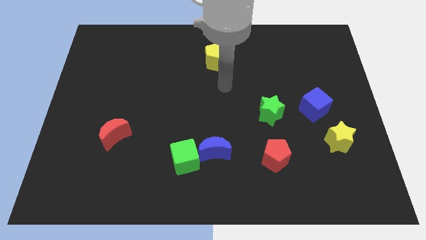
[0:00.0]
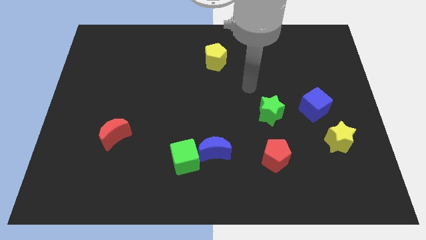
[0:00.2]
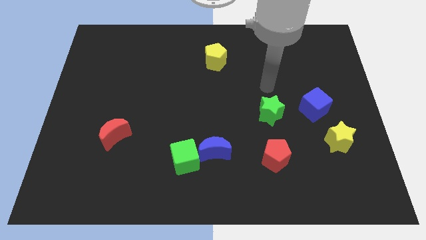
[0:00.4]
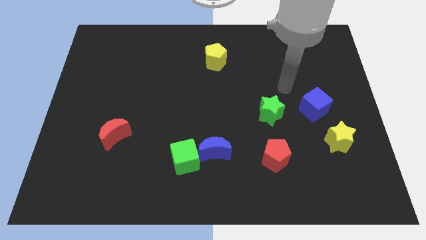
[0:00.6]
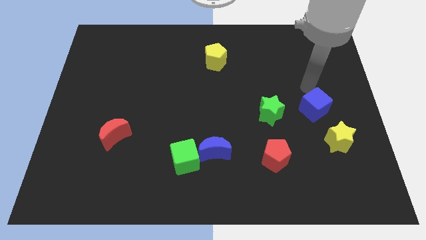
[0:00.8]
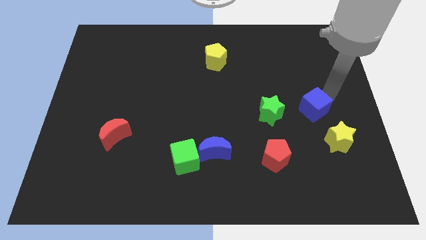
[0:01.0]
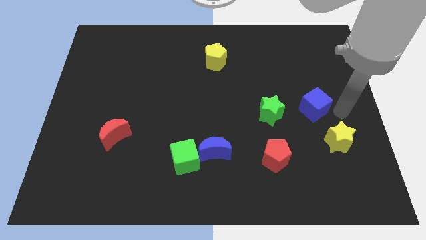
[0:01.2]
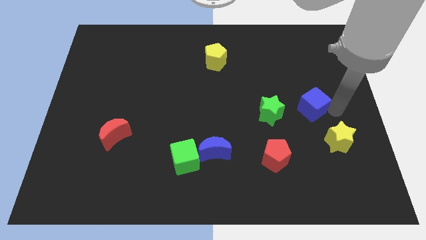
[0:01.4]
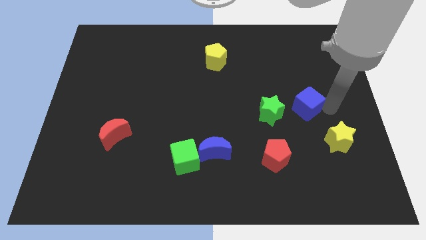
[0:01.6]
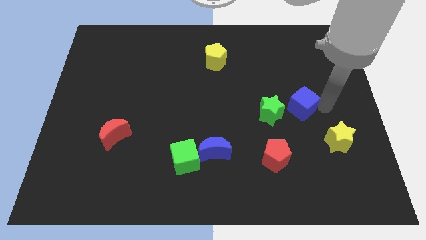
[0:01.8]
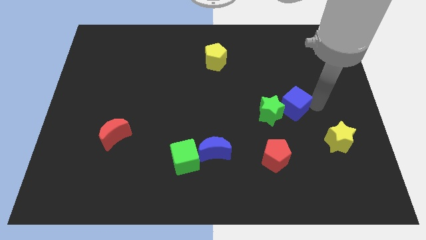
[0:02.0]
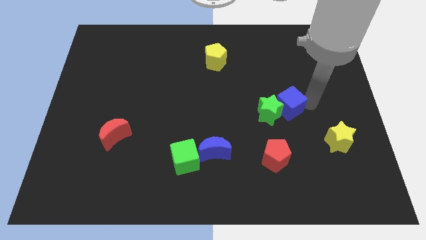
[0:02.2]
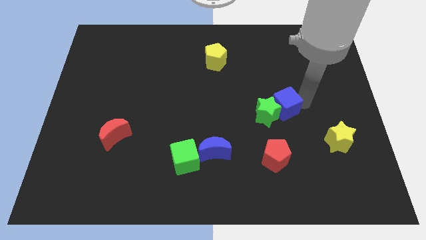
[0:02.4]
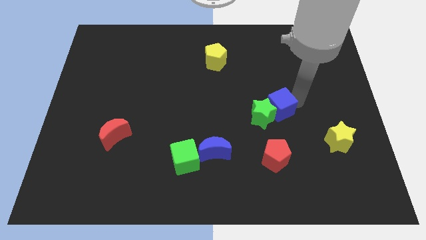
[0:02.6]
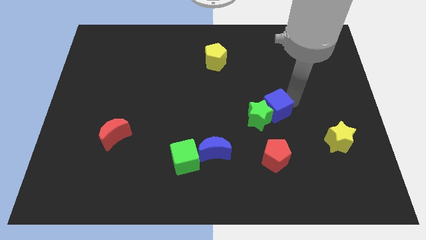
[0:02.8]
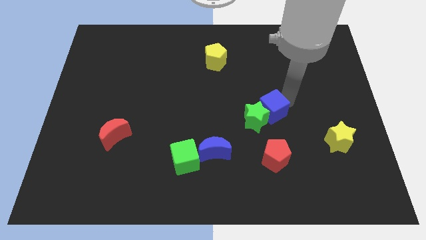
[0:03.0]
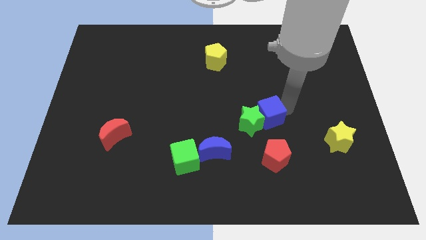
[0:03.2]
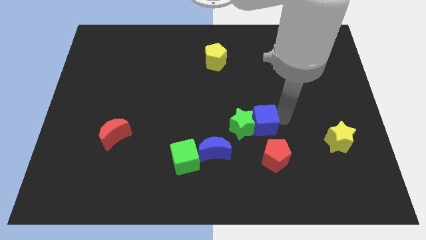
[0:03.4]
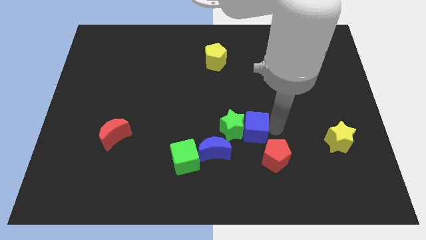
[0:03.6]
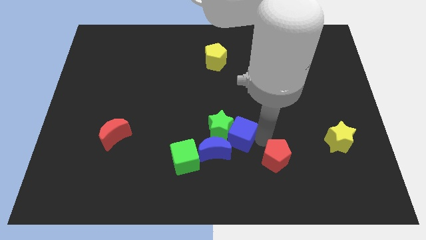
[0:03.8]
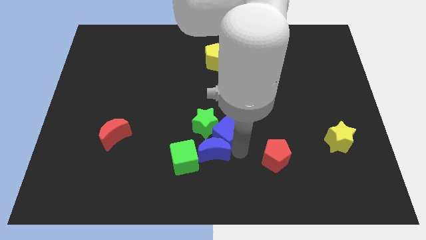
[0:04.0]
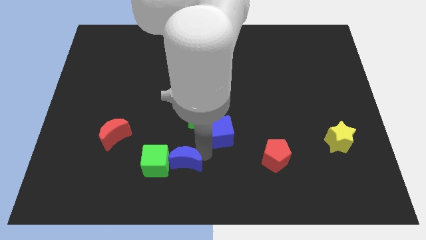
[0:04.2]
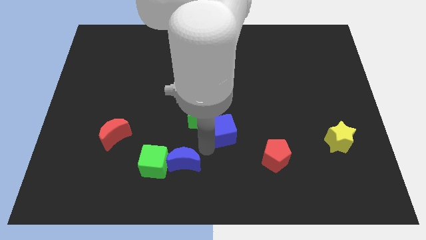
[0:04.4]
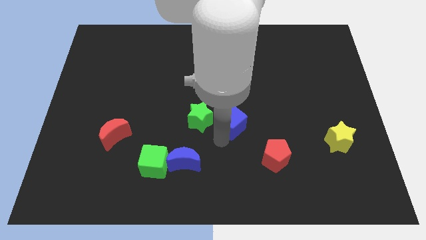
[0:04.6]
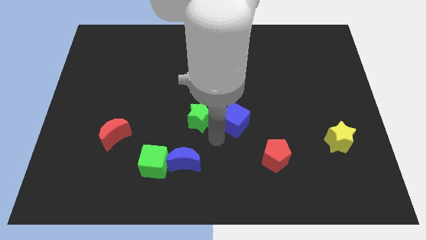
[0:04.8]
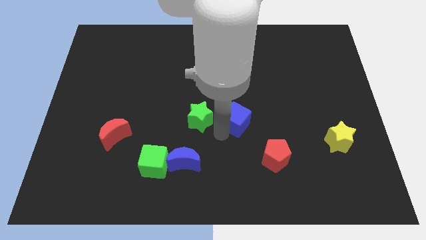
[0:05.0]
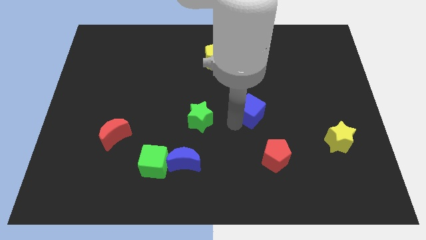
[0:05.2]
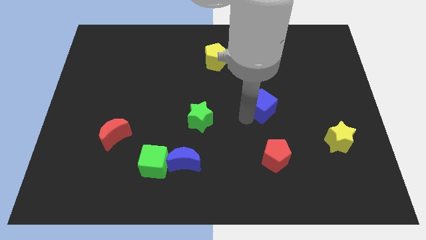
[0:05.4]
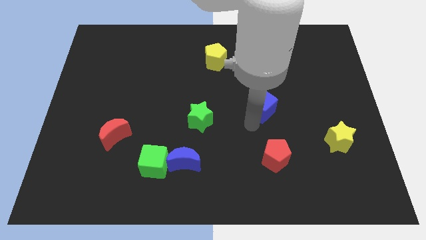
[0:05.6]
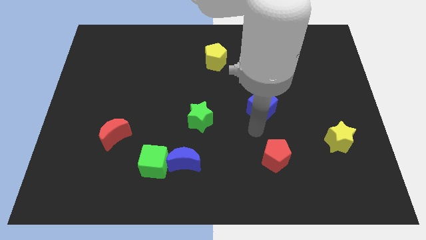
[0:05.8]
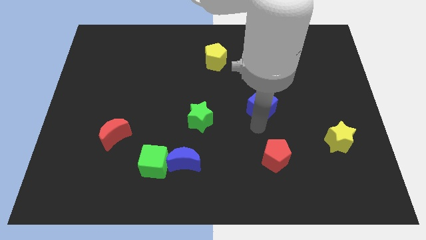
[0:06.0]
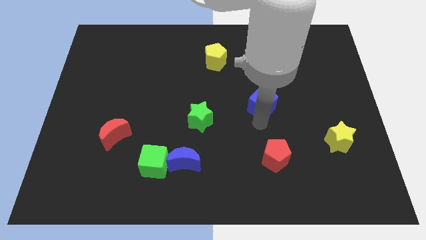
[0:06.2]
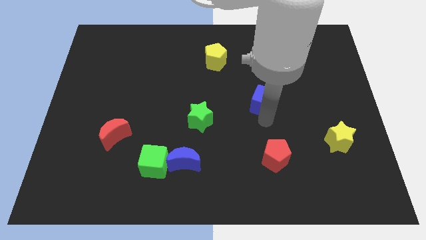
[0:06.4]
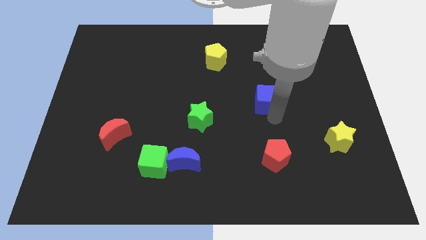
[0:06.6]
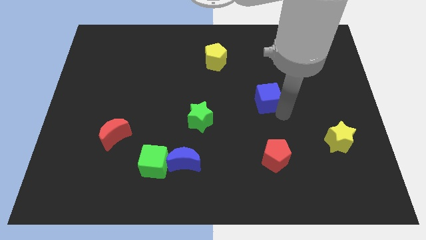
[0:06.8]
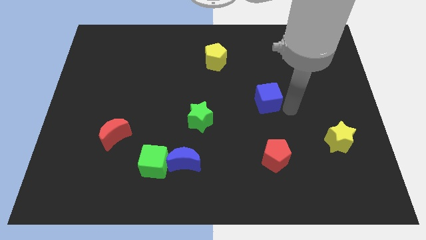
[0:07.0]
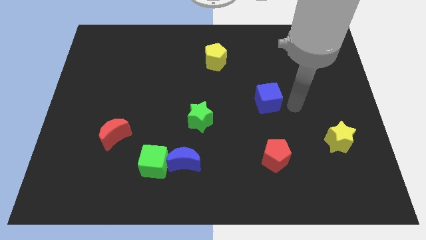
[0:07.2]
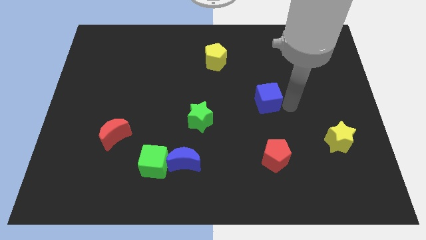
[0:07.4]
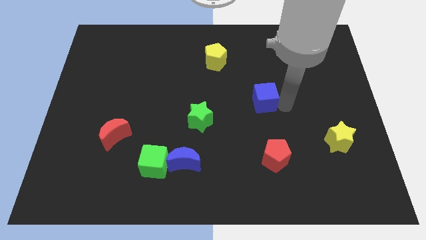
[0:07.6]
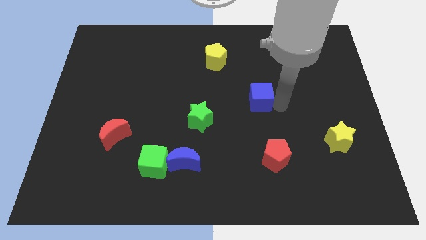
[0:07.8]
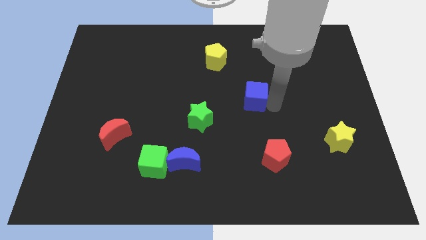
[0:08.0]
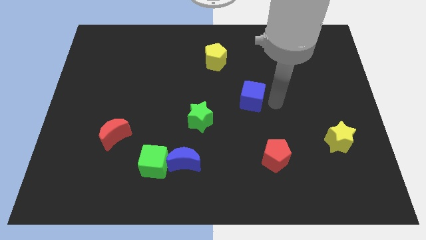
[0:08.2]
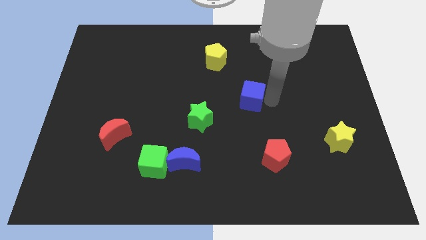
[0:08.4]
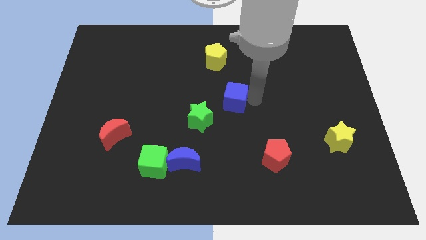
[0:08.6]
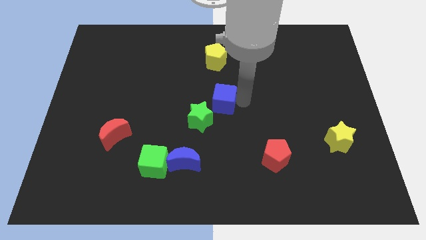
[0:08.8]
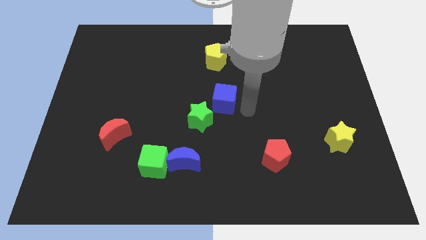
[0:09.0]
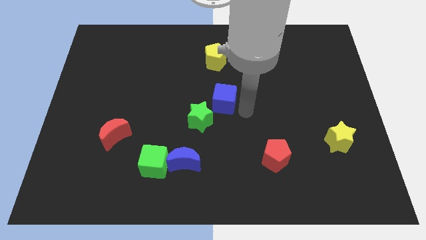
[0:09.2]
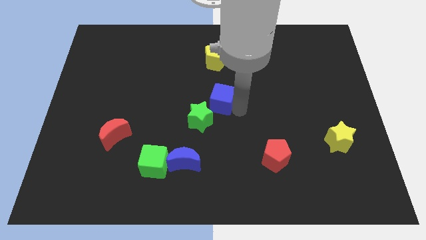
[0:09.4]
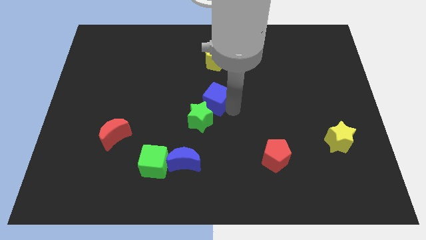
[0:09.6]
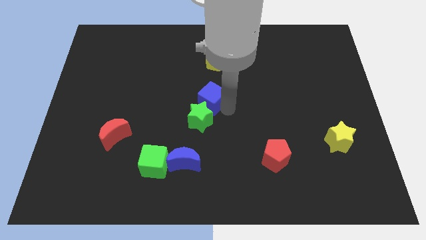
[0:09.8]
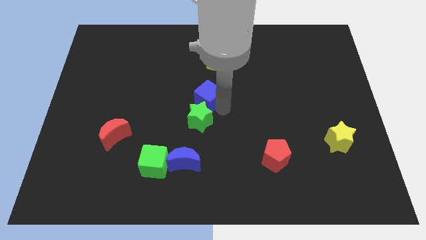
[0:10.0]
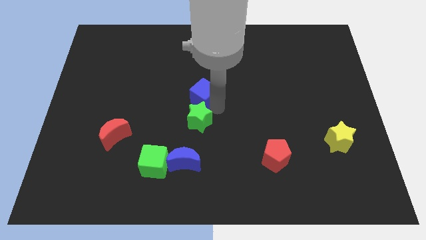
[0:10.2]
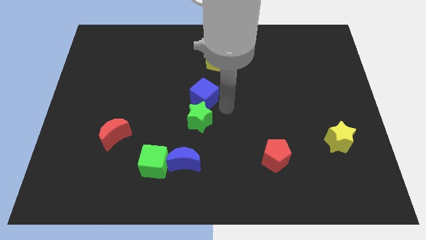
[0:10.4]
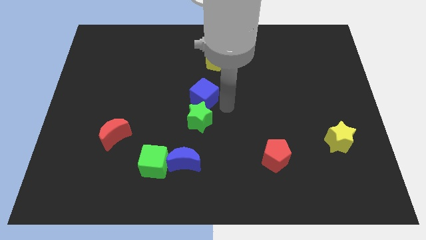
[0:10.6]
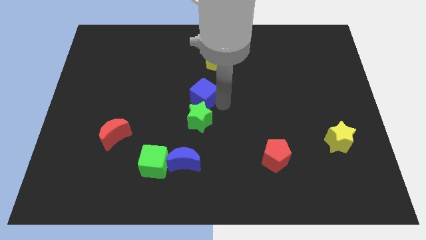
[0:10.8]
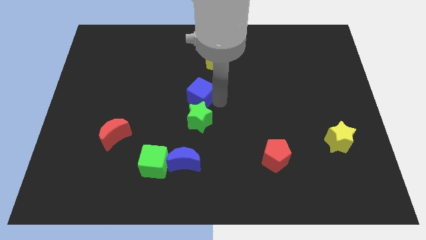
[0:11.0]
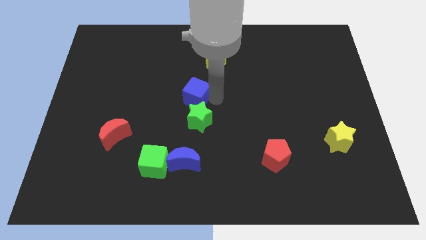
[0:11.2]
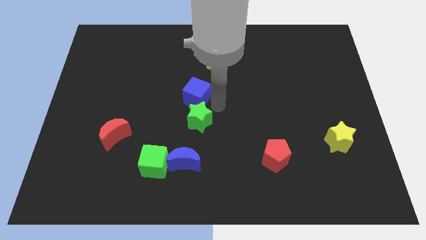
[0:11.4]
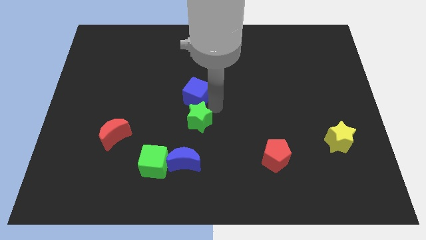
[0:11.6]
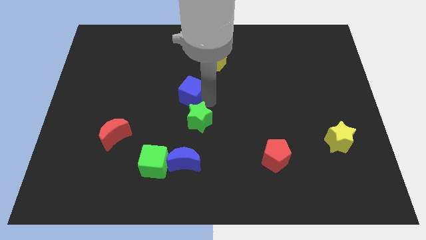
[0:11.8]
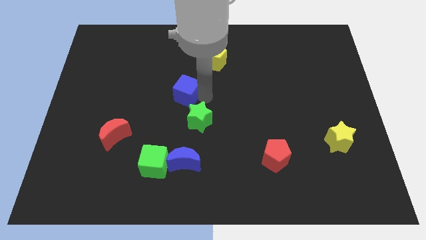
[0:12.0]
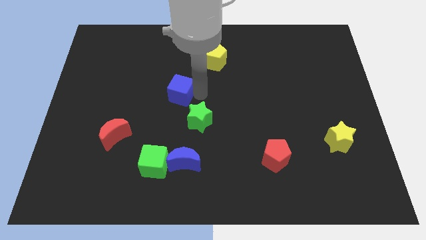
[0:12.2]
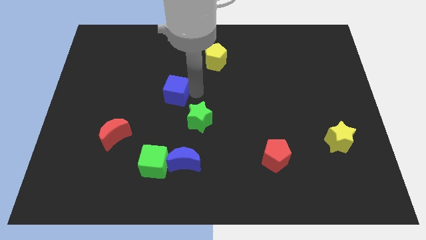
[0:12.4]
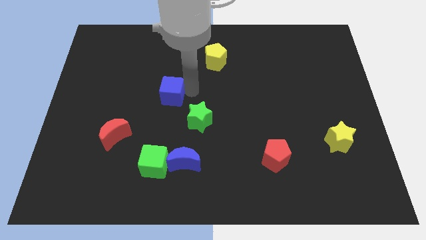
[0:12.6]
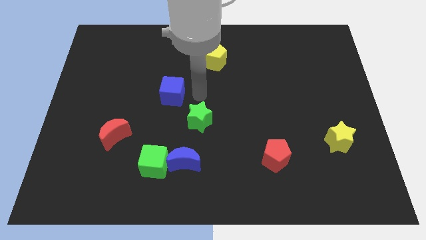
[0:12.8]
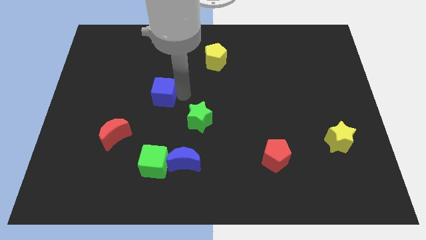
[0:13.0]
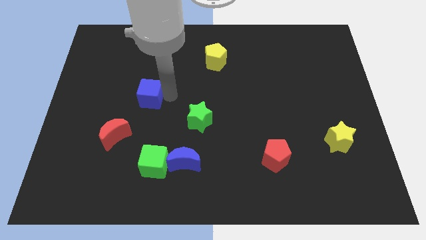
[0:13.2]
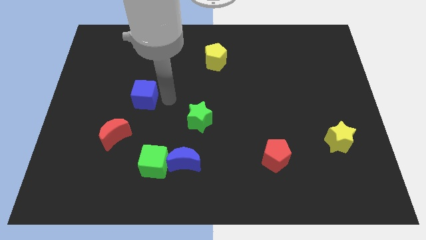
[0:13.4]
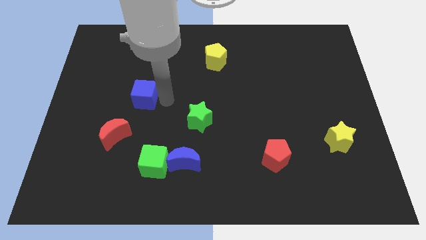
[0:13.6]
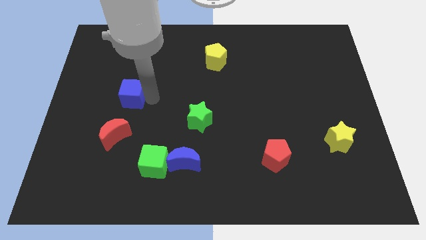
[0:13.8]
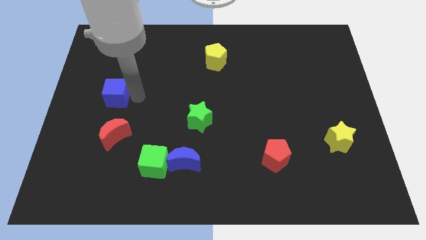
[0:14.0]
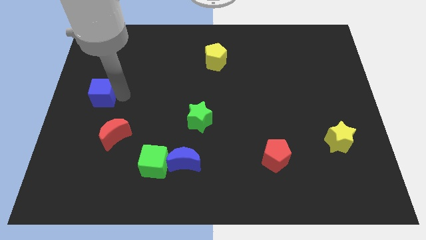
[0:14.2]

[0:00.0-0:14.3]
slide the blue cube to the left side of the board
